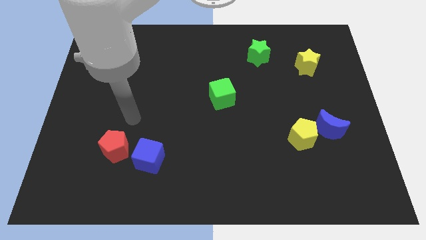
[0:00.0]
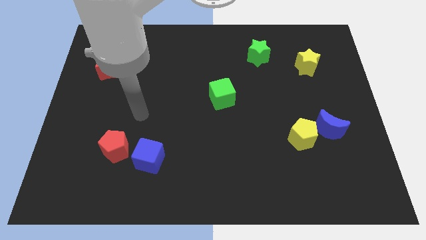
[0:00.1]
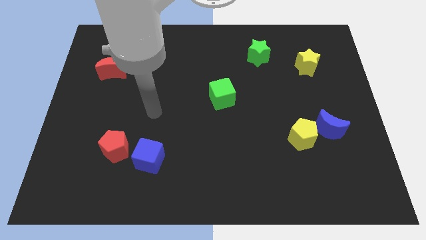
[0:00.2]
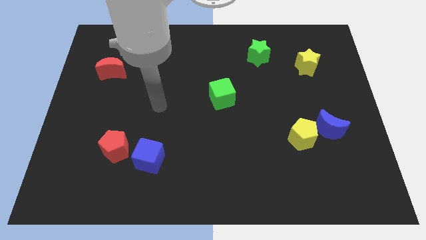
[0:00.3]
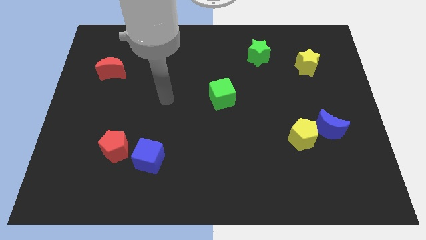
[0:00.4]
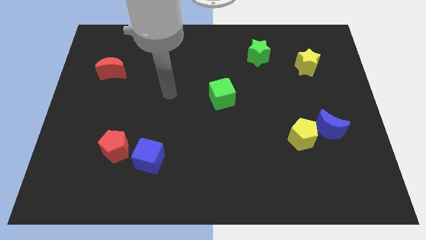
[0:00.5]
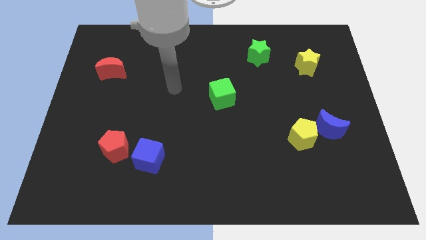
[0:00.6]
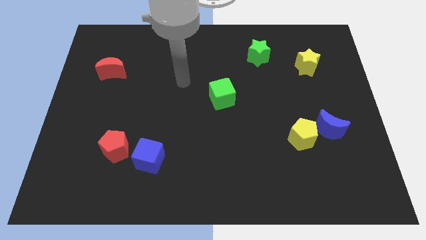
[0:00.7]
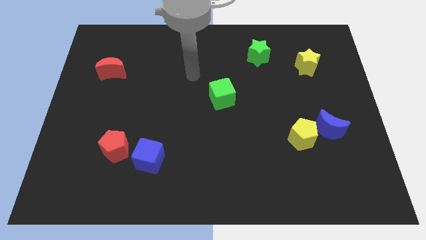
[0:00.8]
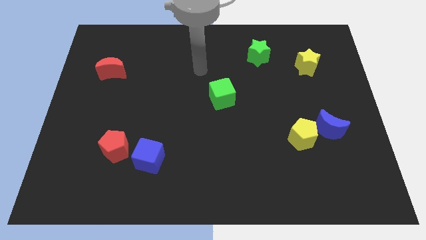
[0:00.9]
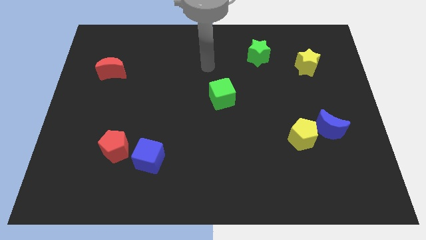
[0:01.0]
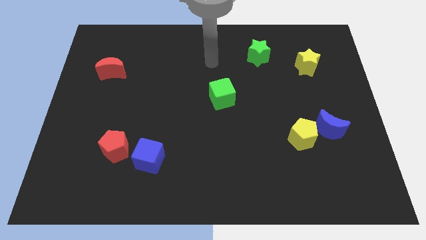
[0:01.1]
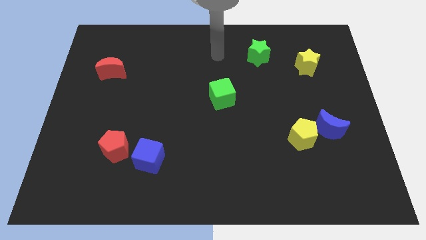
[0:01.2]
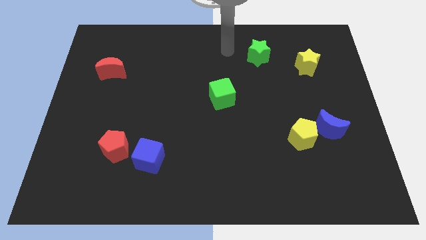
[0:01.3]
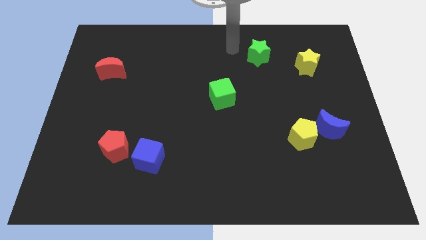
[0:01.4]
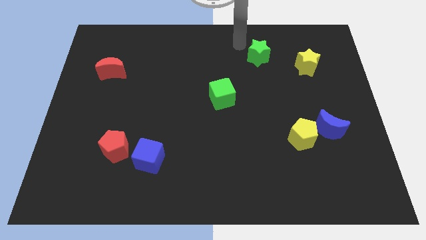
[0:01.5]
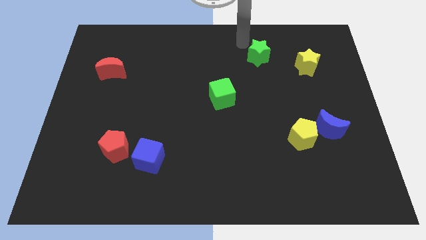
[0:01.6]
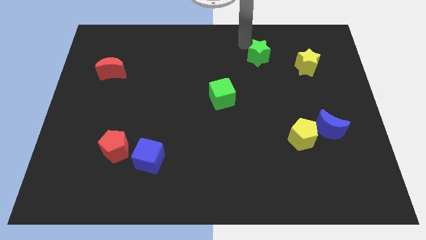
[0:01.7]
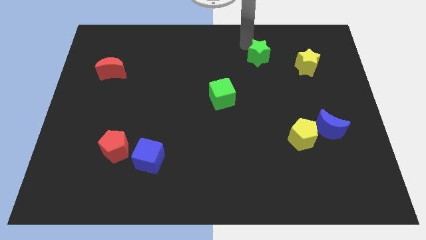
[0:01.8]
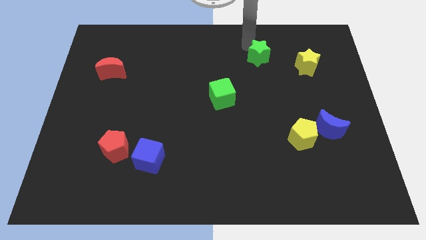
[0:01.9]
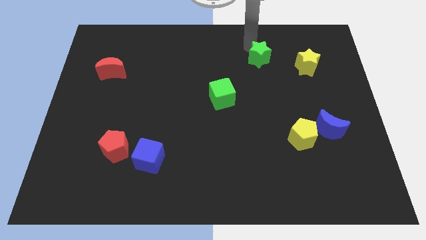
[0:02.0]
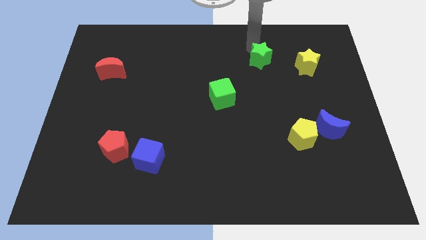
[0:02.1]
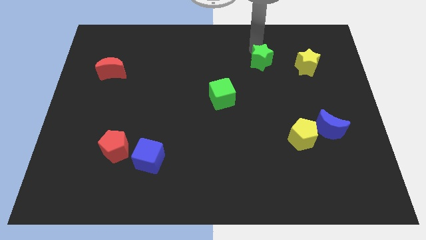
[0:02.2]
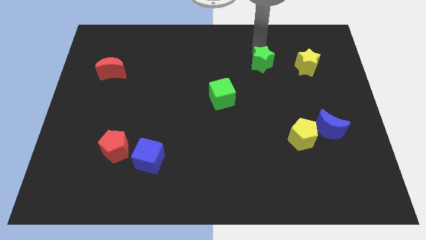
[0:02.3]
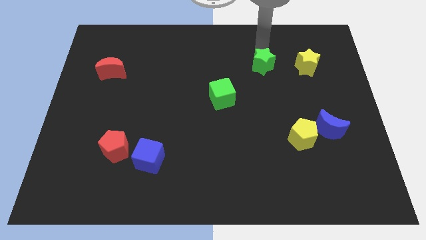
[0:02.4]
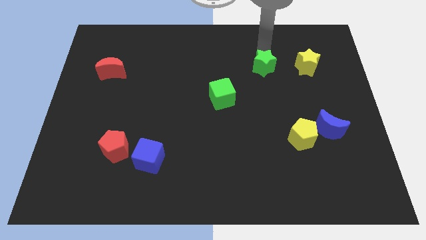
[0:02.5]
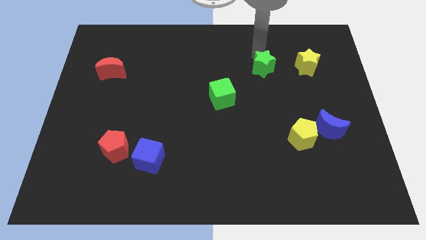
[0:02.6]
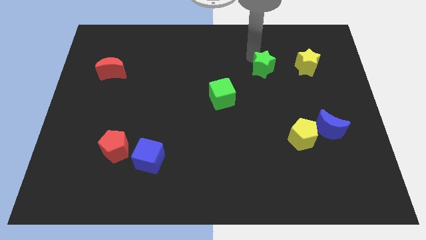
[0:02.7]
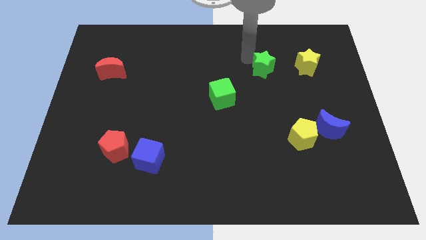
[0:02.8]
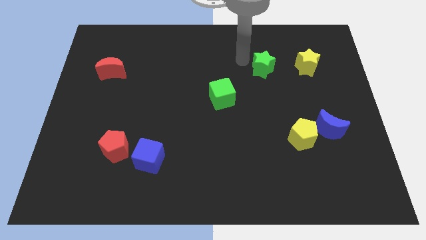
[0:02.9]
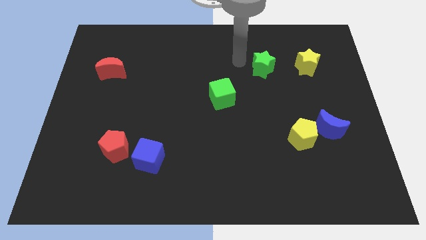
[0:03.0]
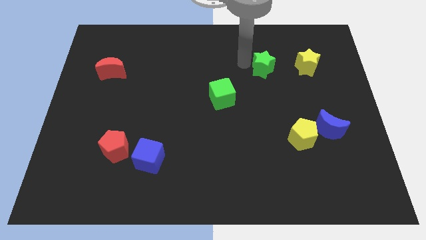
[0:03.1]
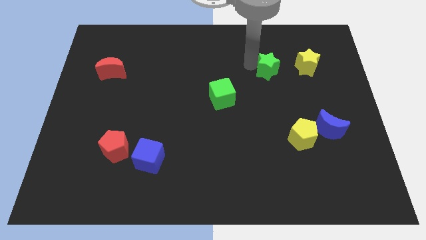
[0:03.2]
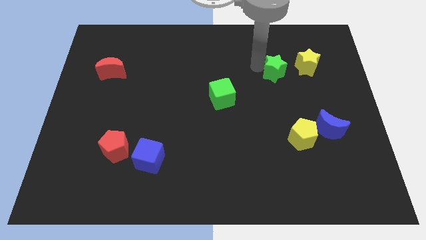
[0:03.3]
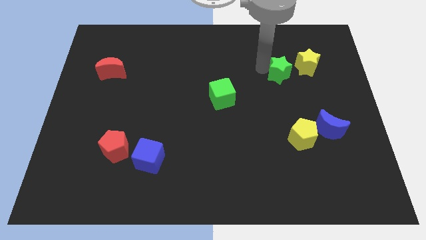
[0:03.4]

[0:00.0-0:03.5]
push the green star a bit downwards and then right

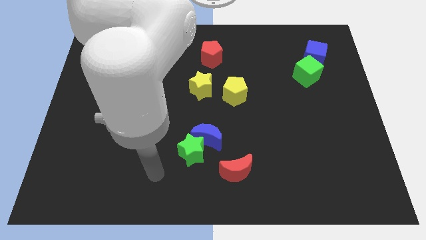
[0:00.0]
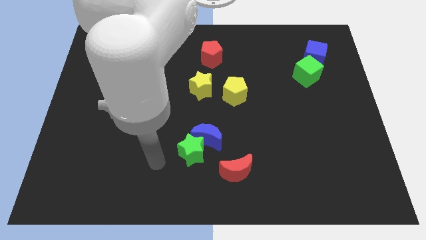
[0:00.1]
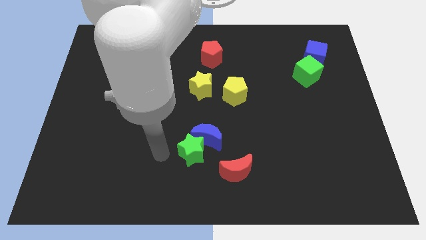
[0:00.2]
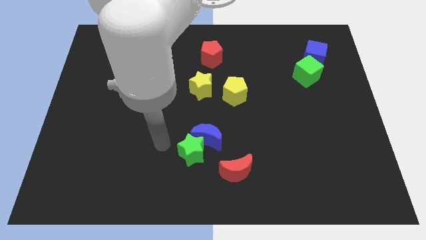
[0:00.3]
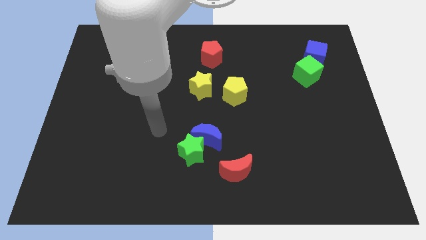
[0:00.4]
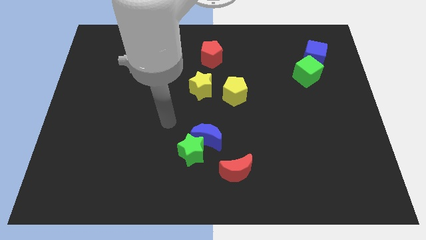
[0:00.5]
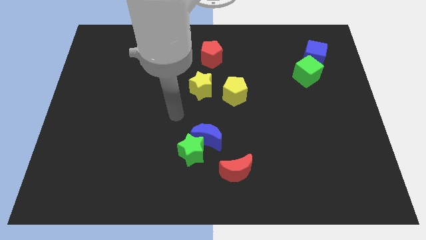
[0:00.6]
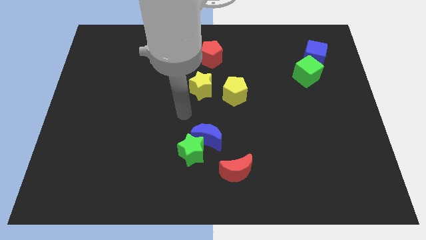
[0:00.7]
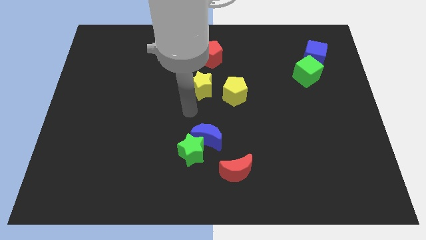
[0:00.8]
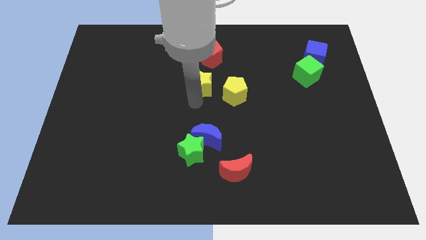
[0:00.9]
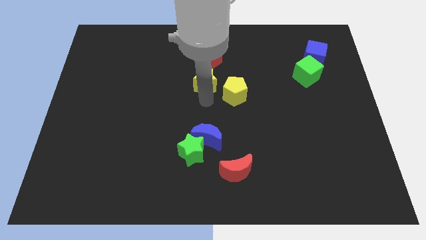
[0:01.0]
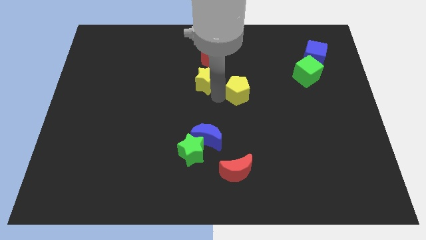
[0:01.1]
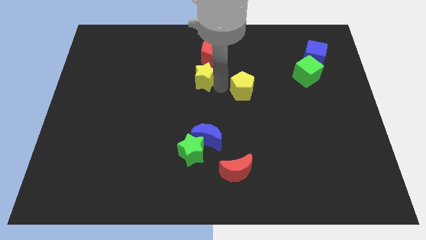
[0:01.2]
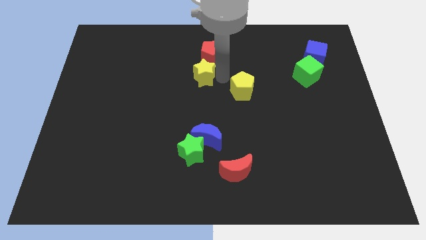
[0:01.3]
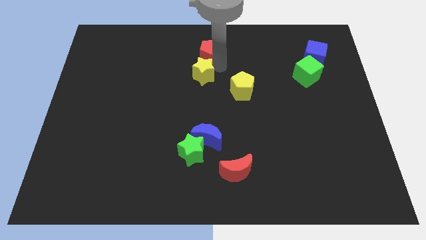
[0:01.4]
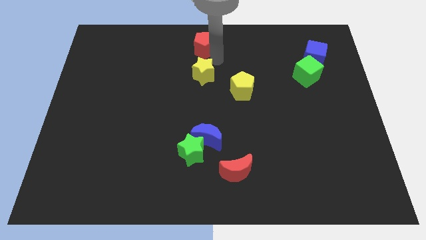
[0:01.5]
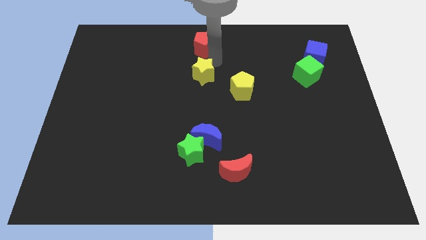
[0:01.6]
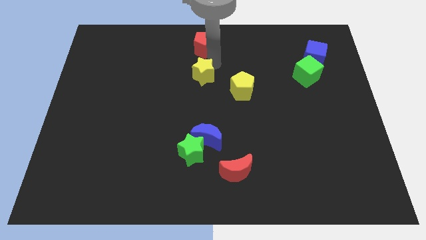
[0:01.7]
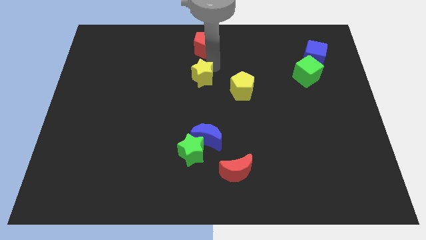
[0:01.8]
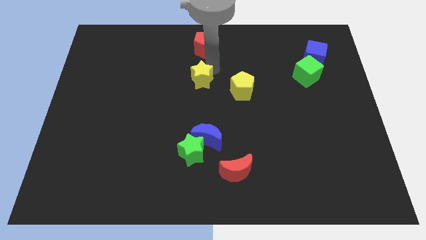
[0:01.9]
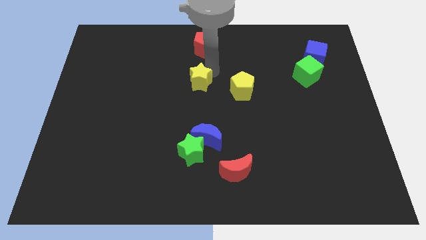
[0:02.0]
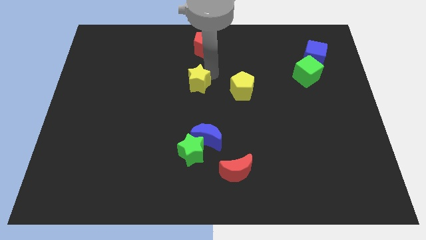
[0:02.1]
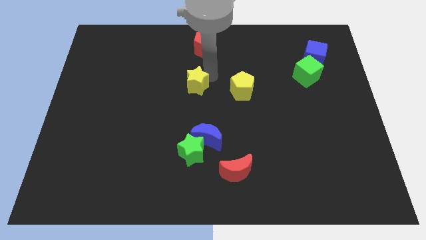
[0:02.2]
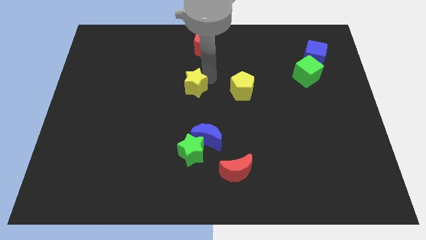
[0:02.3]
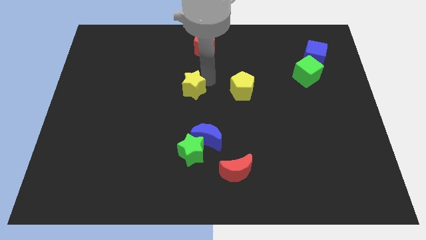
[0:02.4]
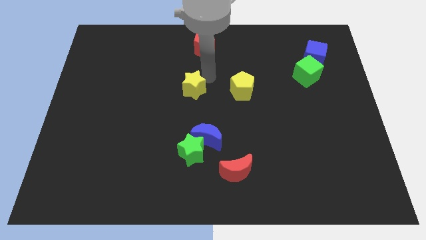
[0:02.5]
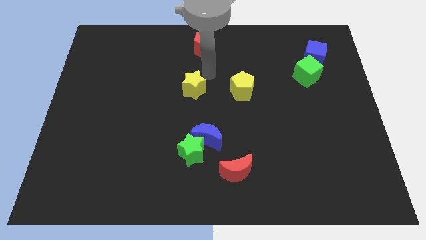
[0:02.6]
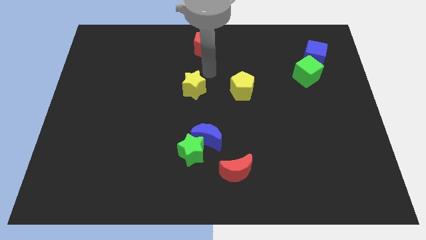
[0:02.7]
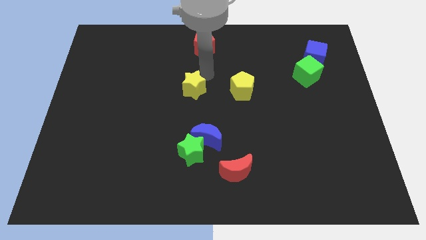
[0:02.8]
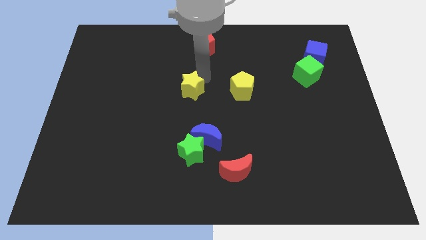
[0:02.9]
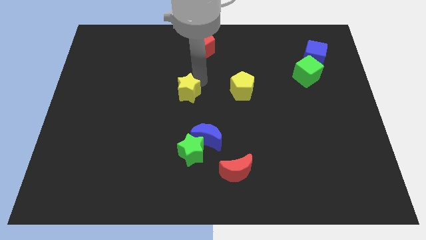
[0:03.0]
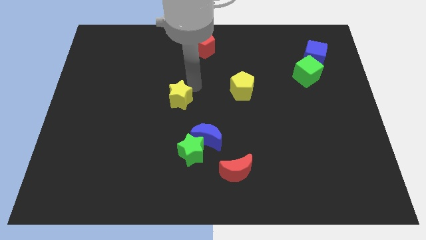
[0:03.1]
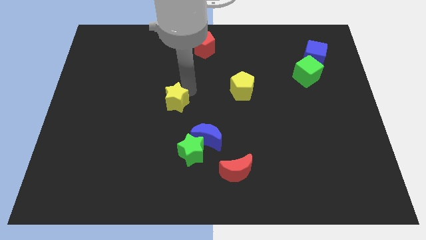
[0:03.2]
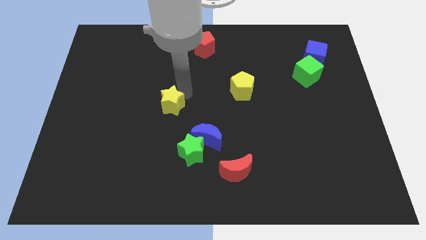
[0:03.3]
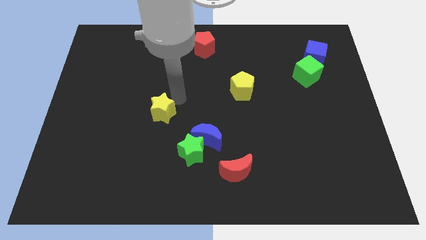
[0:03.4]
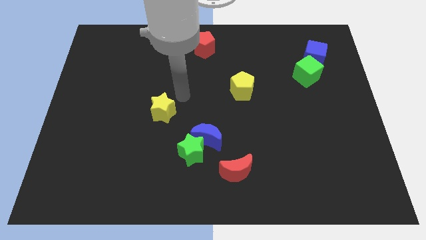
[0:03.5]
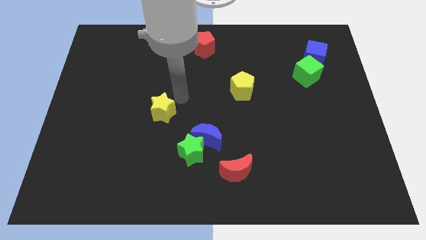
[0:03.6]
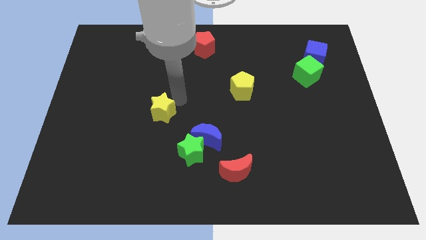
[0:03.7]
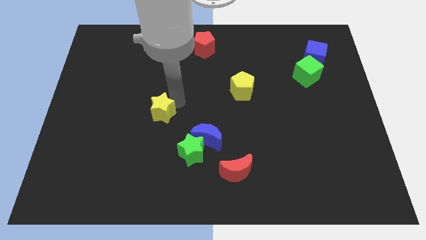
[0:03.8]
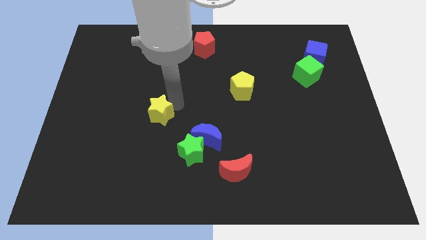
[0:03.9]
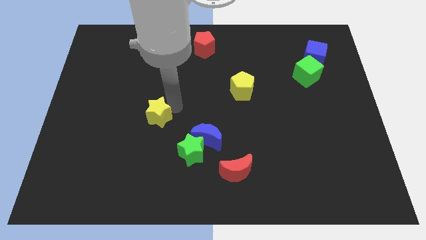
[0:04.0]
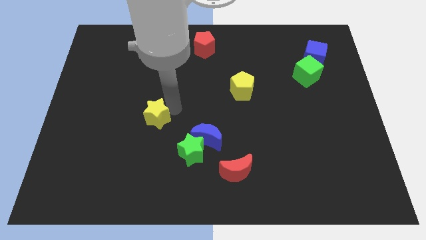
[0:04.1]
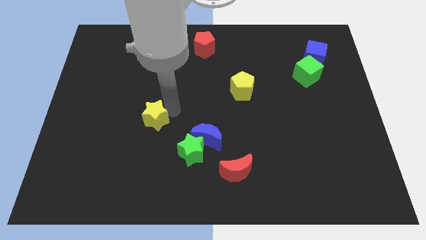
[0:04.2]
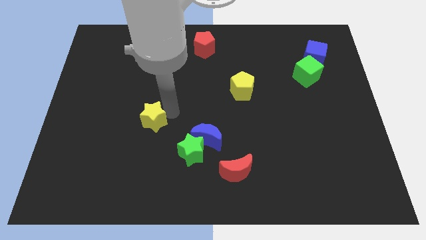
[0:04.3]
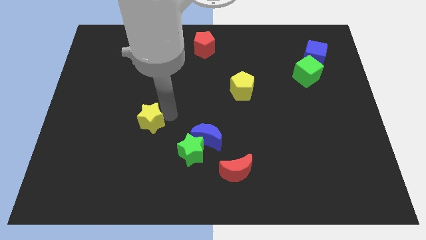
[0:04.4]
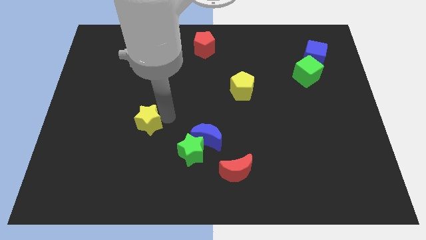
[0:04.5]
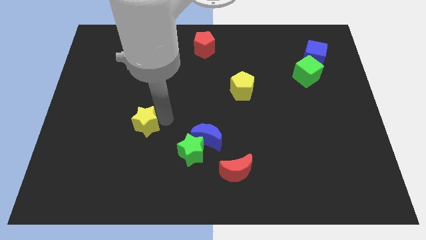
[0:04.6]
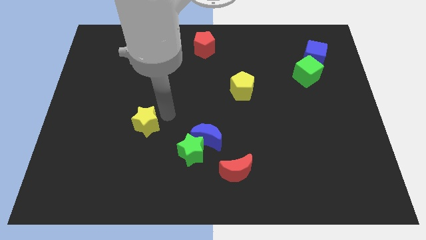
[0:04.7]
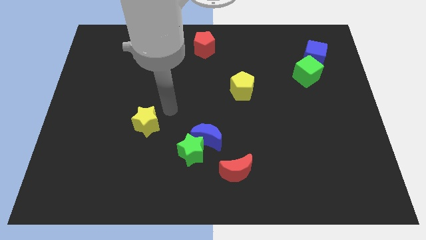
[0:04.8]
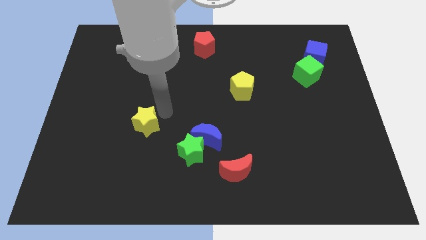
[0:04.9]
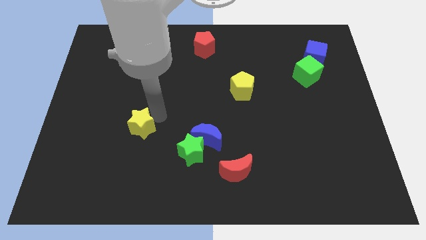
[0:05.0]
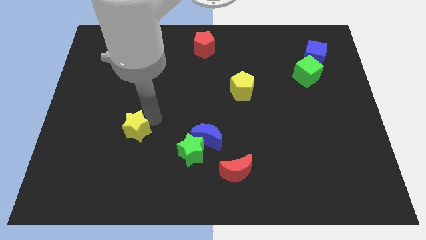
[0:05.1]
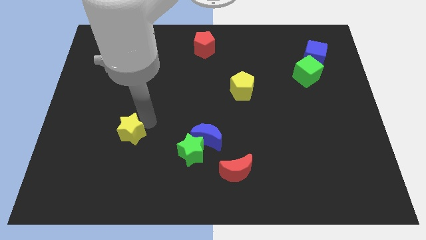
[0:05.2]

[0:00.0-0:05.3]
move the yellow star downwards and to the left
